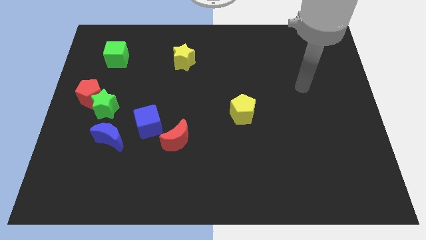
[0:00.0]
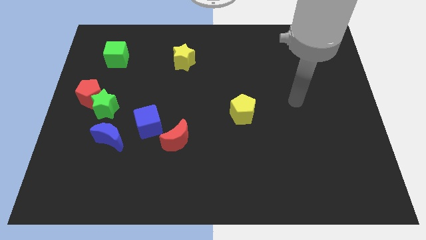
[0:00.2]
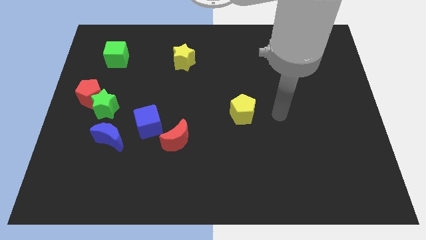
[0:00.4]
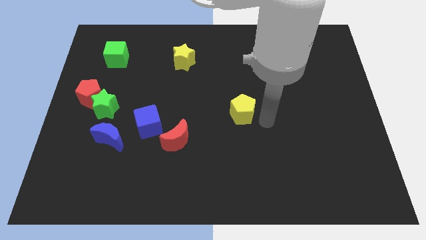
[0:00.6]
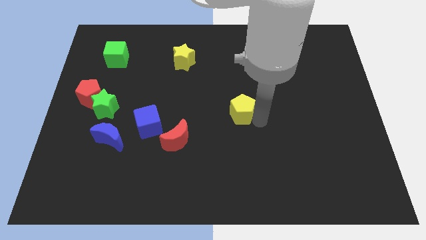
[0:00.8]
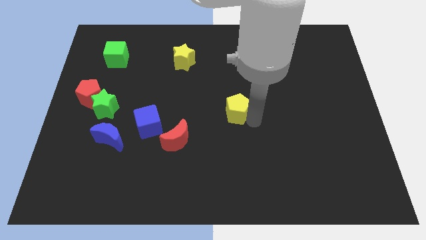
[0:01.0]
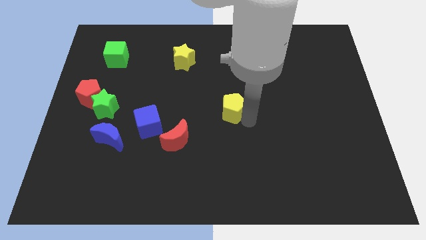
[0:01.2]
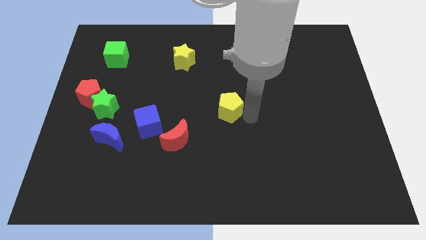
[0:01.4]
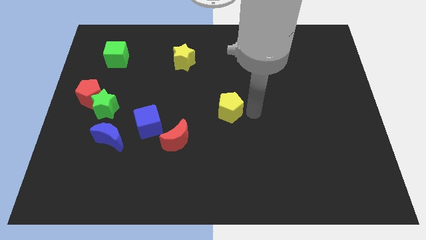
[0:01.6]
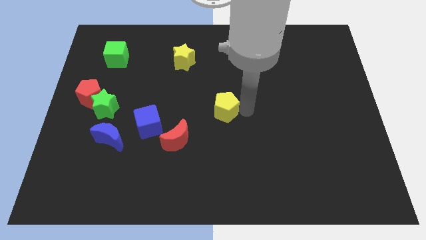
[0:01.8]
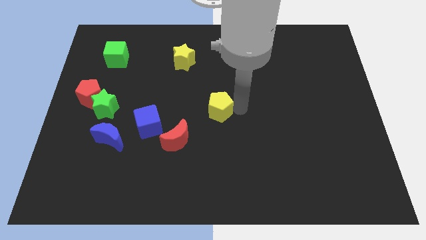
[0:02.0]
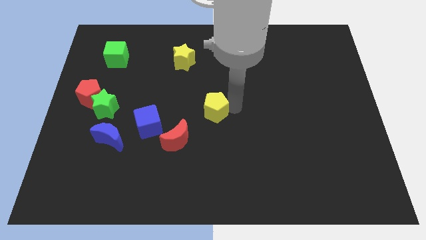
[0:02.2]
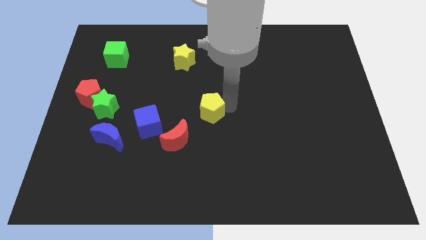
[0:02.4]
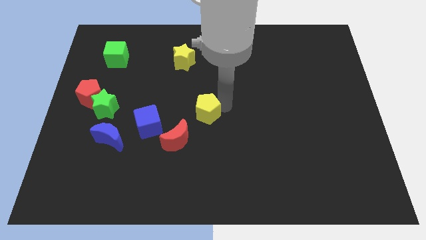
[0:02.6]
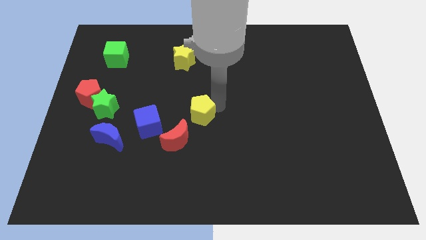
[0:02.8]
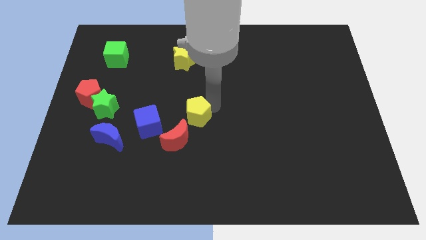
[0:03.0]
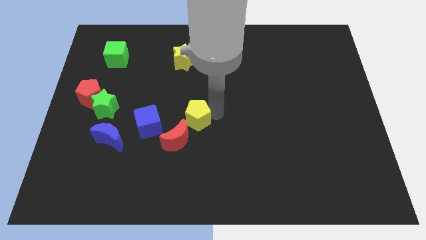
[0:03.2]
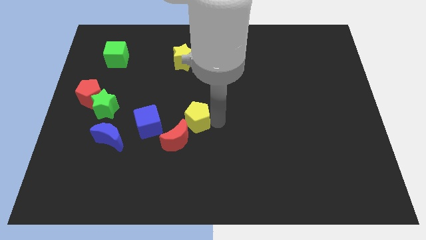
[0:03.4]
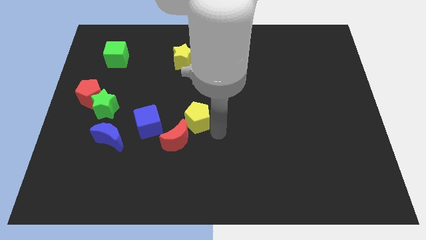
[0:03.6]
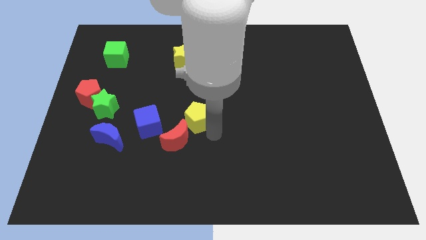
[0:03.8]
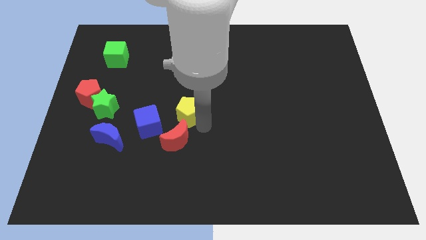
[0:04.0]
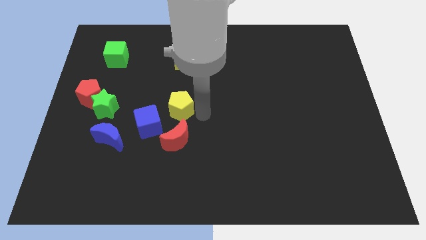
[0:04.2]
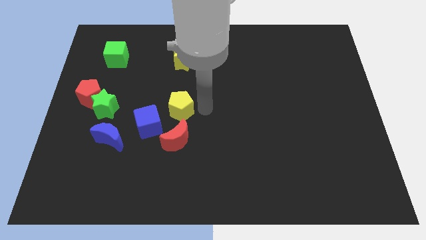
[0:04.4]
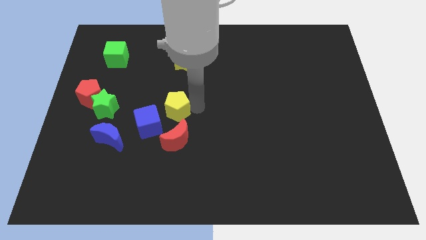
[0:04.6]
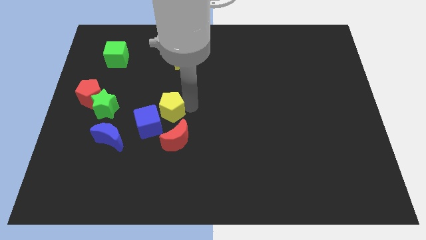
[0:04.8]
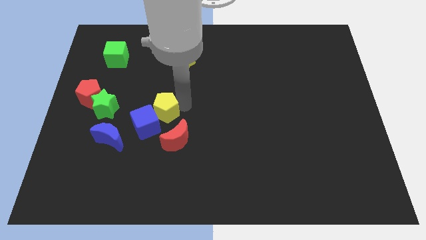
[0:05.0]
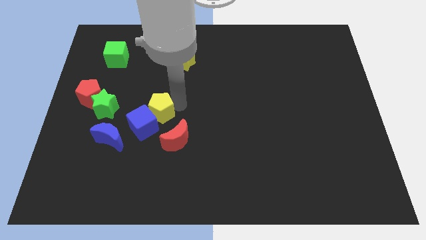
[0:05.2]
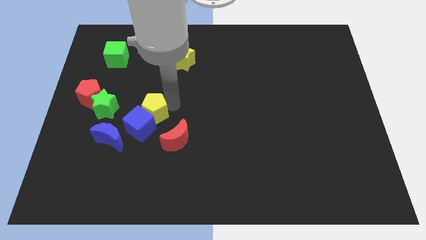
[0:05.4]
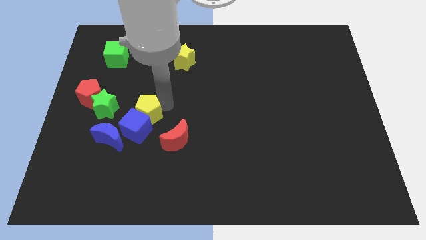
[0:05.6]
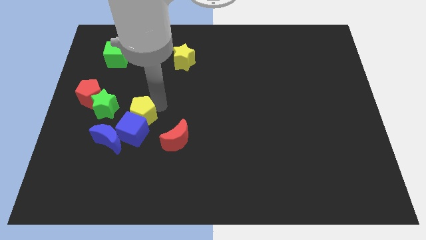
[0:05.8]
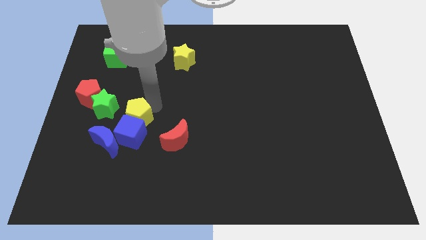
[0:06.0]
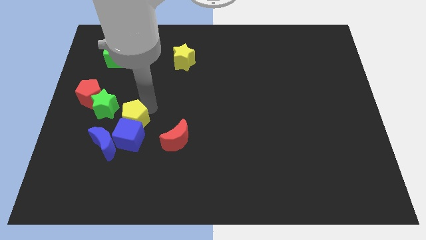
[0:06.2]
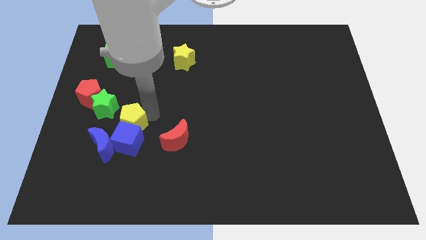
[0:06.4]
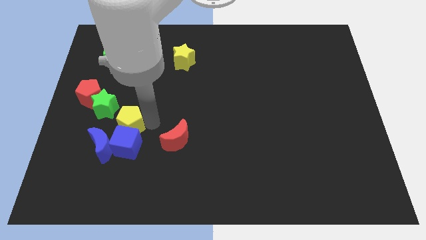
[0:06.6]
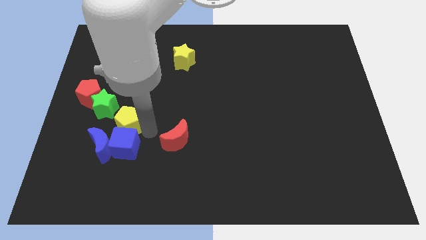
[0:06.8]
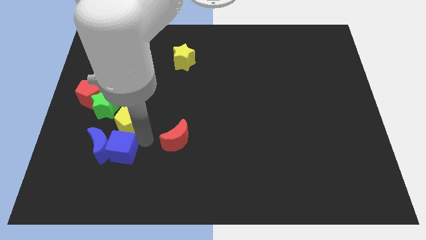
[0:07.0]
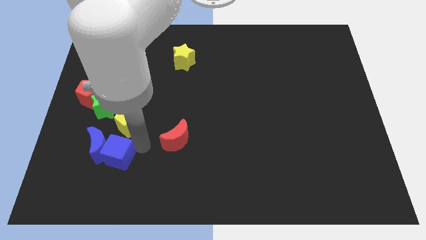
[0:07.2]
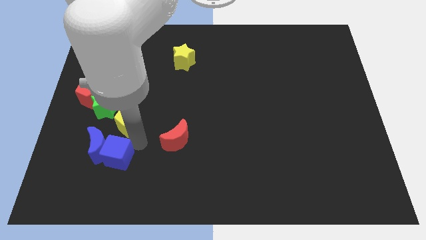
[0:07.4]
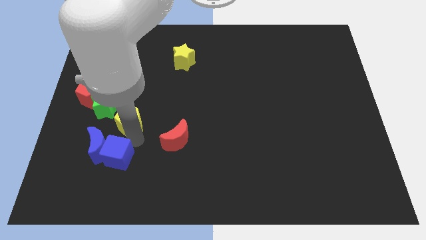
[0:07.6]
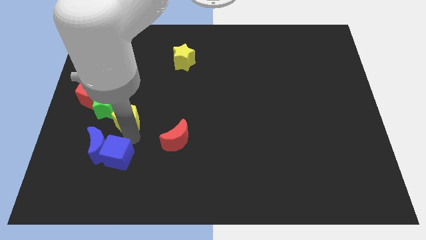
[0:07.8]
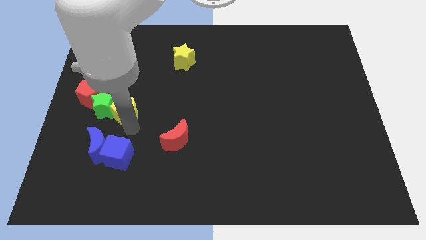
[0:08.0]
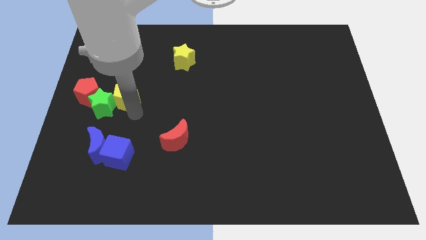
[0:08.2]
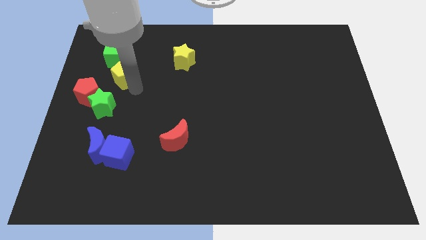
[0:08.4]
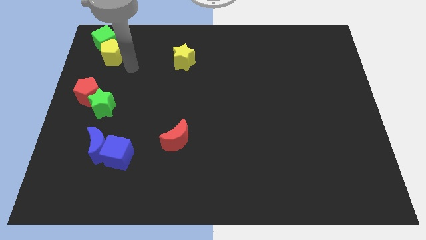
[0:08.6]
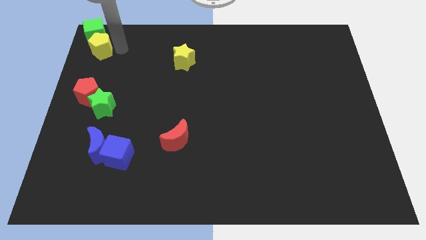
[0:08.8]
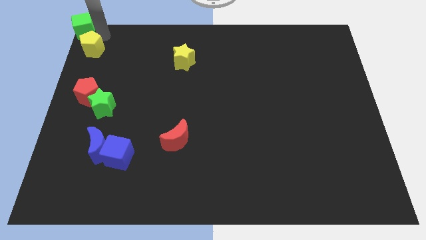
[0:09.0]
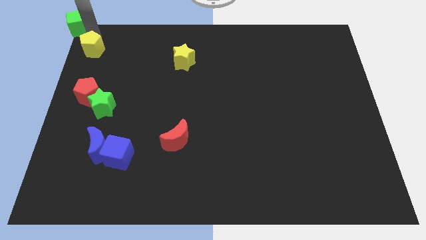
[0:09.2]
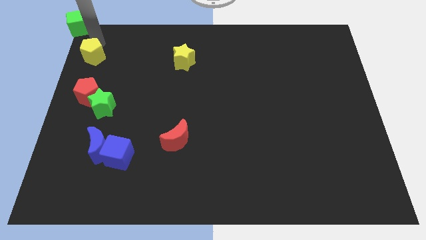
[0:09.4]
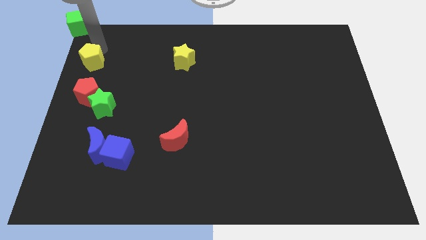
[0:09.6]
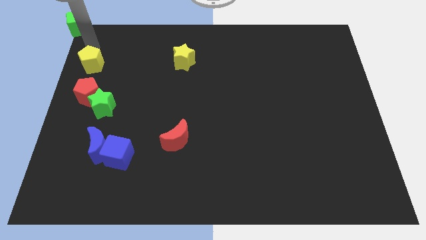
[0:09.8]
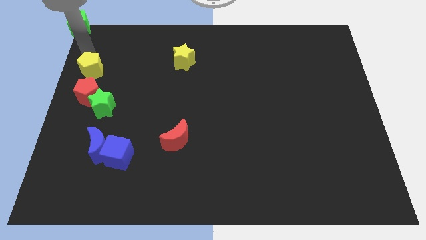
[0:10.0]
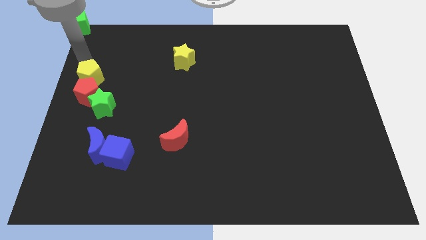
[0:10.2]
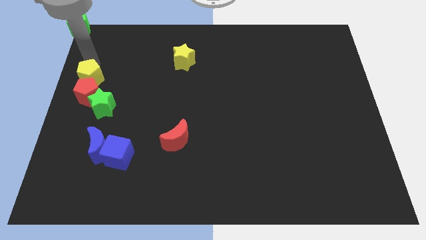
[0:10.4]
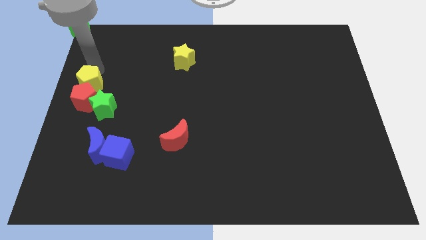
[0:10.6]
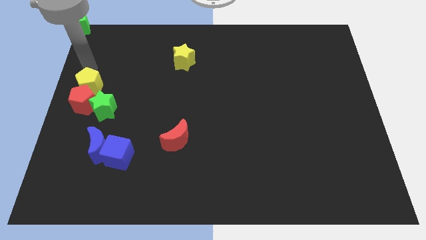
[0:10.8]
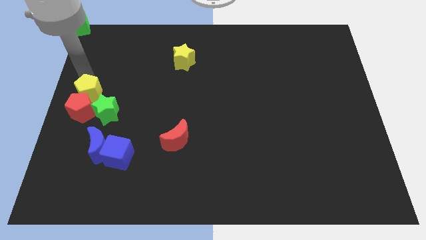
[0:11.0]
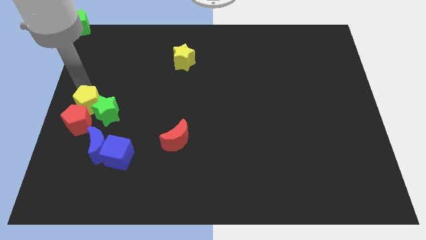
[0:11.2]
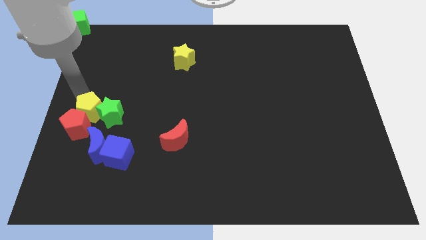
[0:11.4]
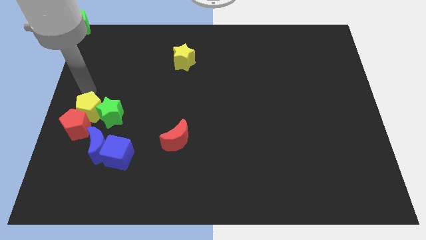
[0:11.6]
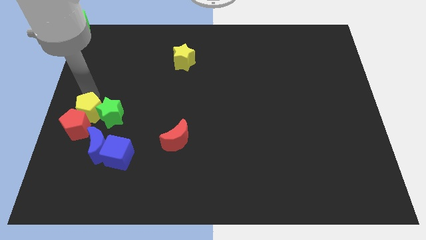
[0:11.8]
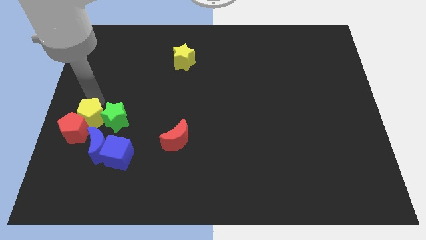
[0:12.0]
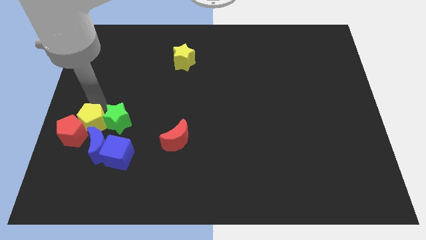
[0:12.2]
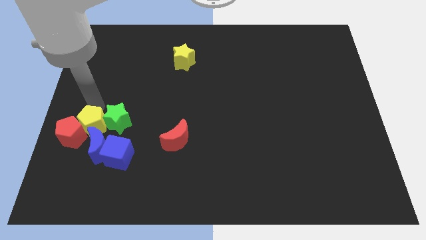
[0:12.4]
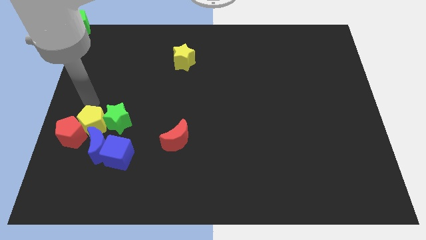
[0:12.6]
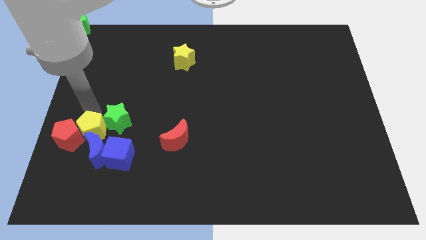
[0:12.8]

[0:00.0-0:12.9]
put the yellow pentagon next to the blue moon
